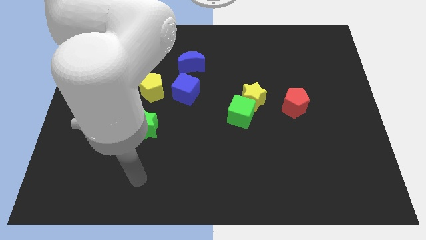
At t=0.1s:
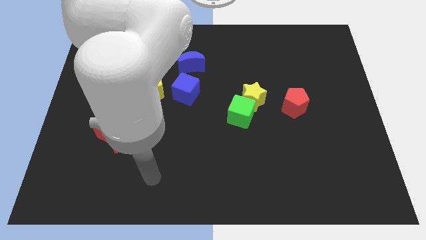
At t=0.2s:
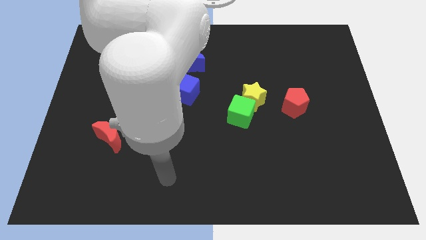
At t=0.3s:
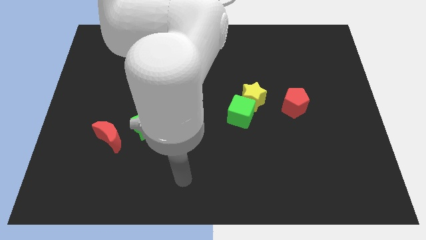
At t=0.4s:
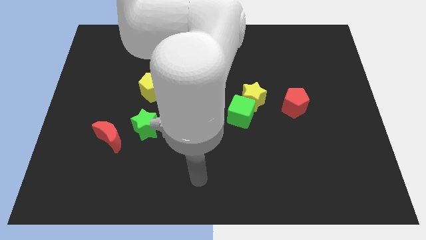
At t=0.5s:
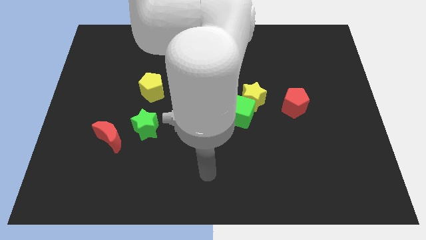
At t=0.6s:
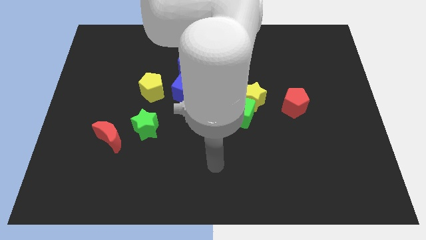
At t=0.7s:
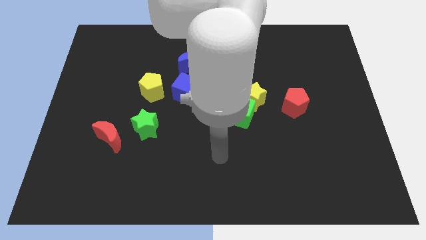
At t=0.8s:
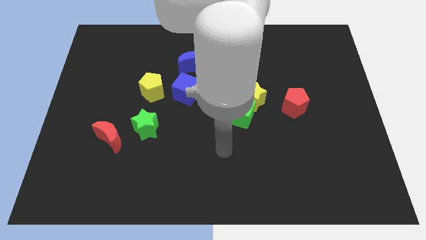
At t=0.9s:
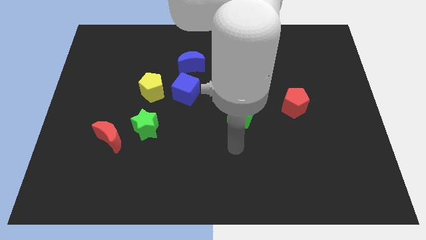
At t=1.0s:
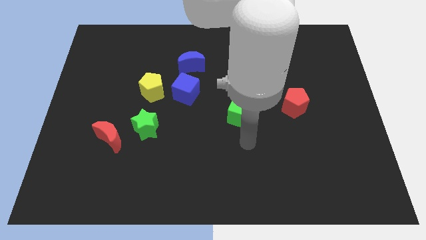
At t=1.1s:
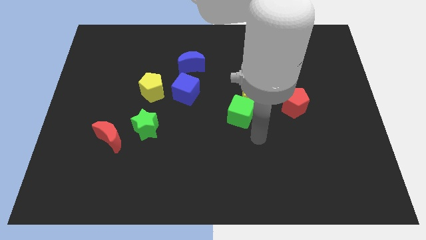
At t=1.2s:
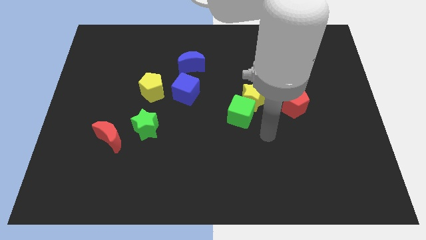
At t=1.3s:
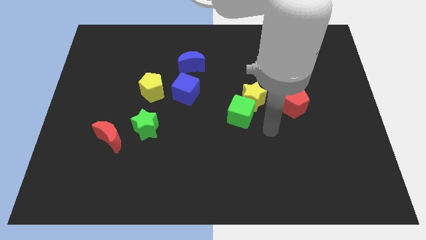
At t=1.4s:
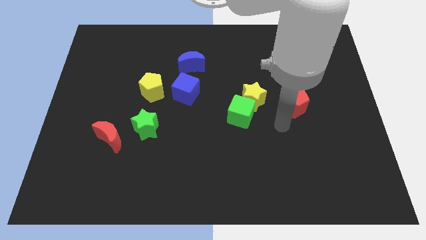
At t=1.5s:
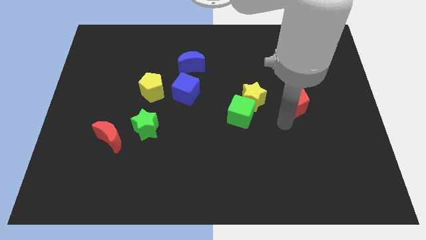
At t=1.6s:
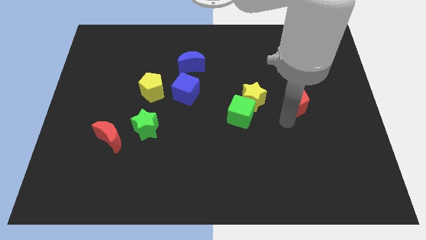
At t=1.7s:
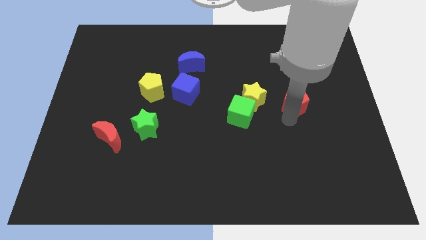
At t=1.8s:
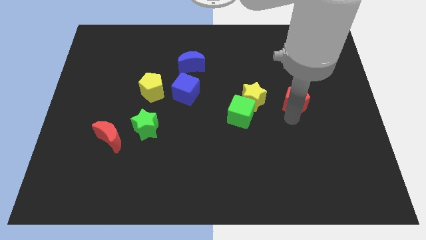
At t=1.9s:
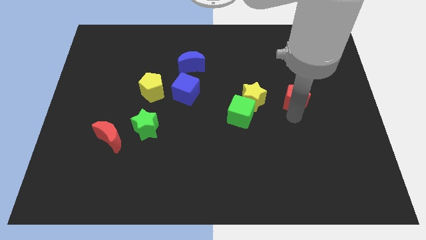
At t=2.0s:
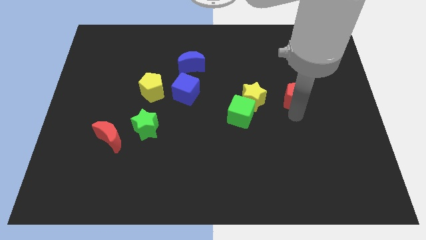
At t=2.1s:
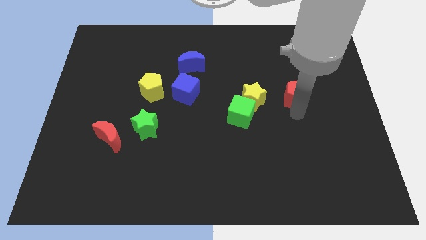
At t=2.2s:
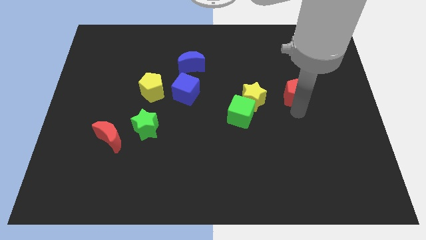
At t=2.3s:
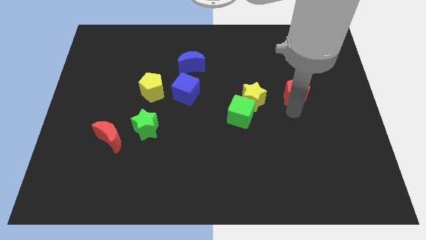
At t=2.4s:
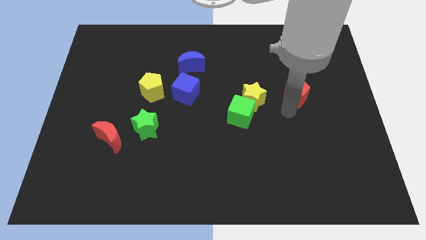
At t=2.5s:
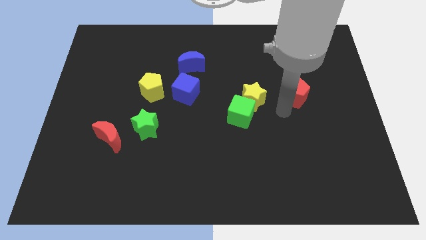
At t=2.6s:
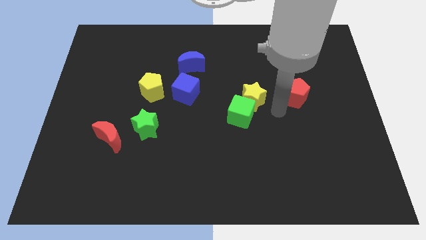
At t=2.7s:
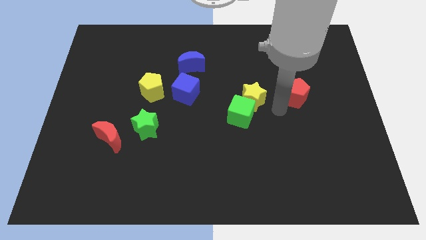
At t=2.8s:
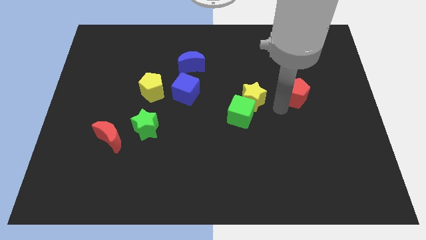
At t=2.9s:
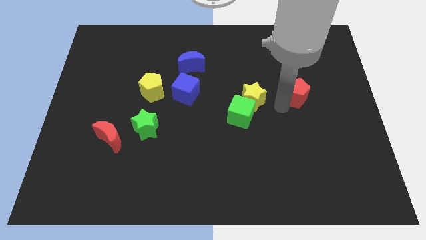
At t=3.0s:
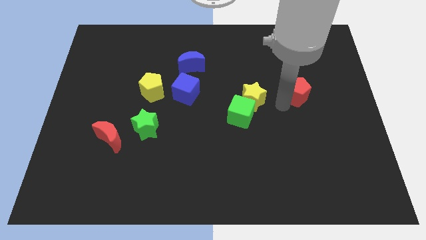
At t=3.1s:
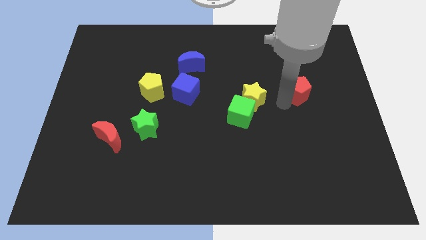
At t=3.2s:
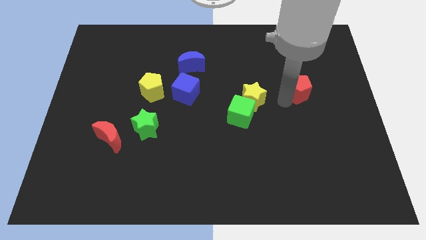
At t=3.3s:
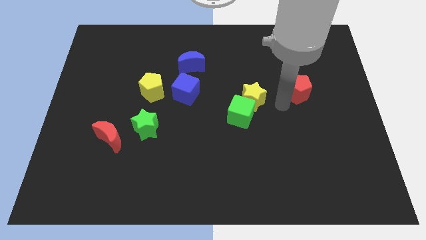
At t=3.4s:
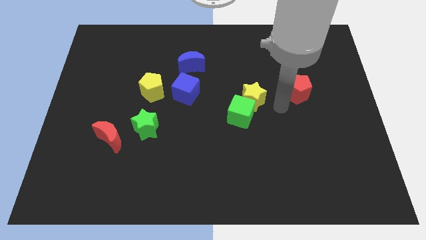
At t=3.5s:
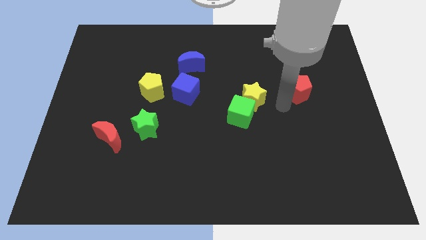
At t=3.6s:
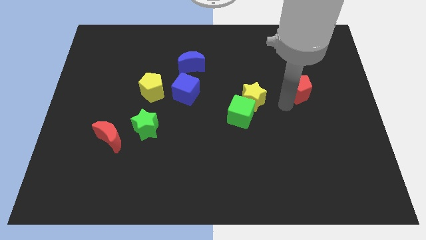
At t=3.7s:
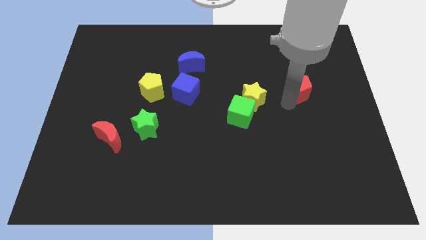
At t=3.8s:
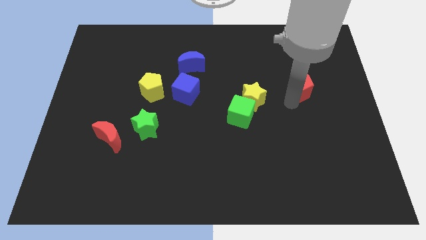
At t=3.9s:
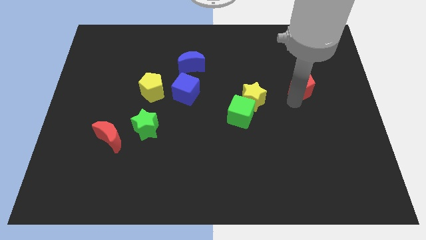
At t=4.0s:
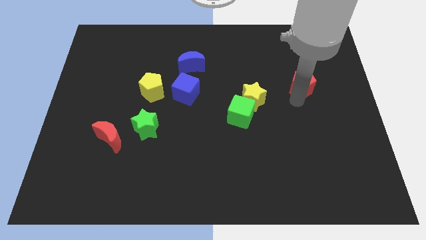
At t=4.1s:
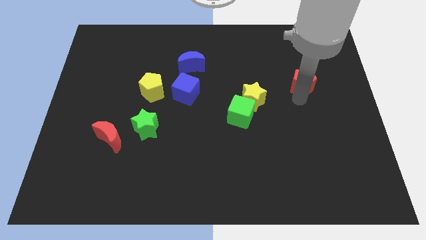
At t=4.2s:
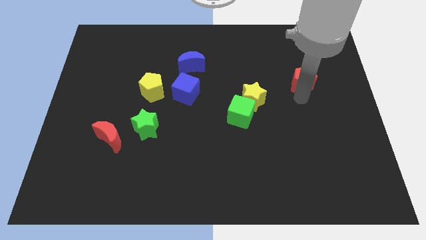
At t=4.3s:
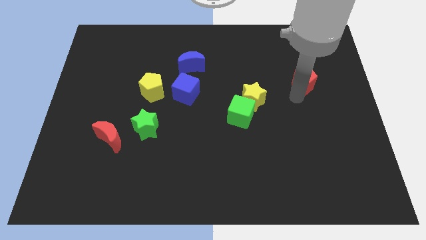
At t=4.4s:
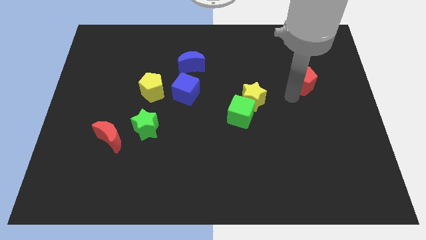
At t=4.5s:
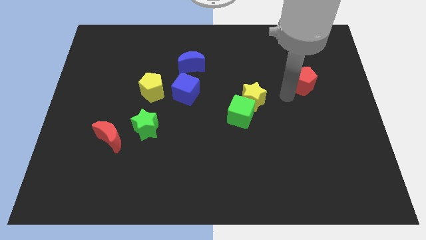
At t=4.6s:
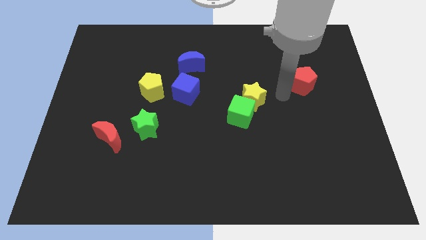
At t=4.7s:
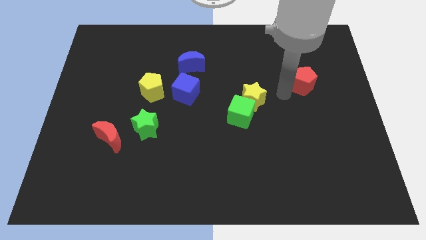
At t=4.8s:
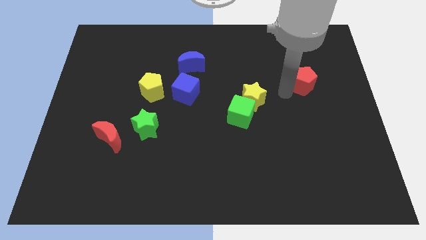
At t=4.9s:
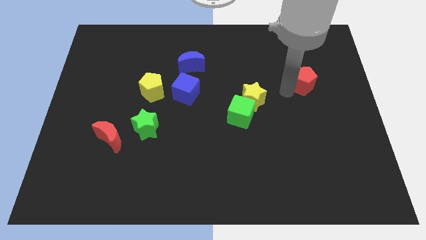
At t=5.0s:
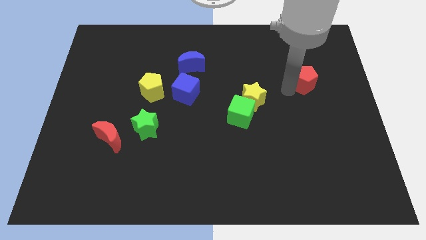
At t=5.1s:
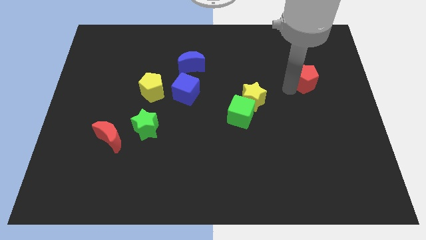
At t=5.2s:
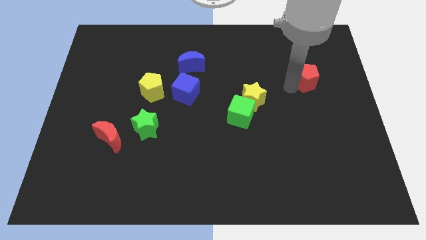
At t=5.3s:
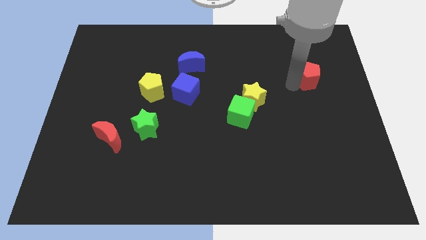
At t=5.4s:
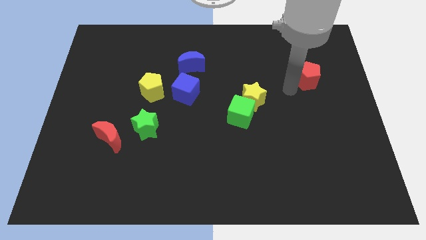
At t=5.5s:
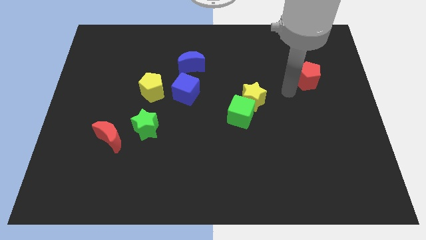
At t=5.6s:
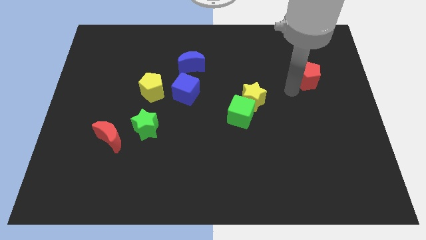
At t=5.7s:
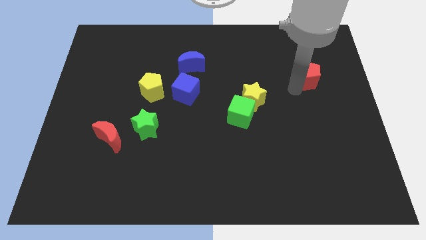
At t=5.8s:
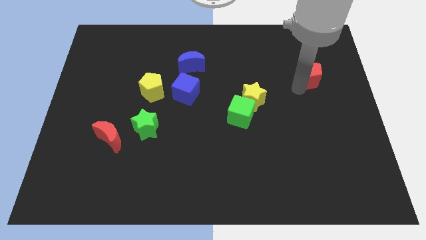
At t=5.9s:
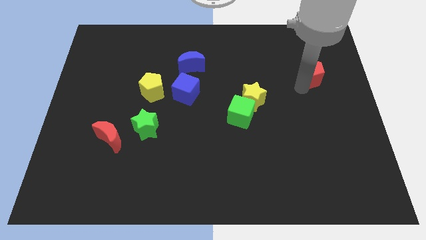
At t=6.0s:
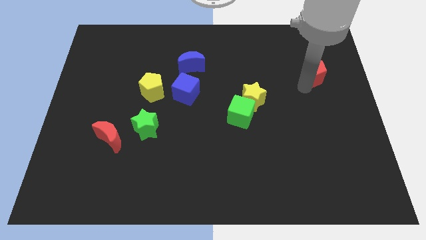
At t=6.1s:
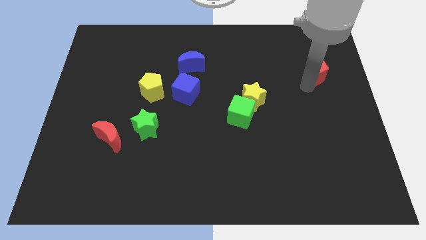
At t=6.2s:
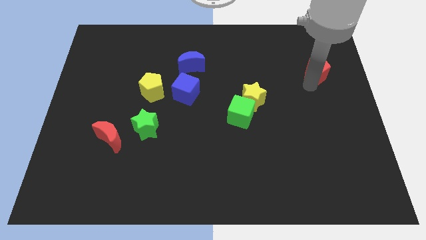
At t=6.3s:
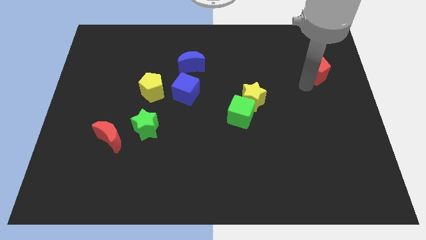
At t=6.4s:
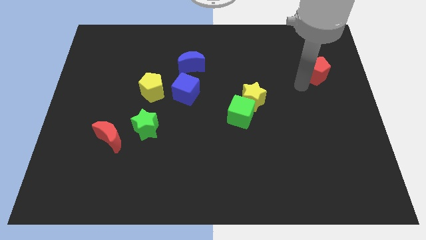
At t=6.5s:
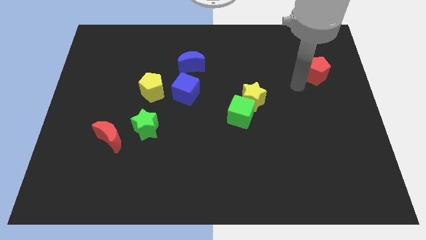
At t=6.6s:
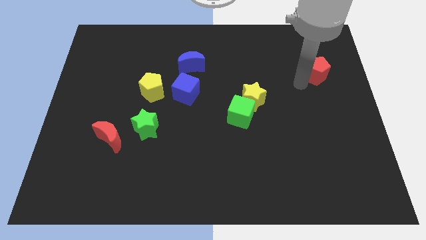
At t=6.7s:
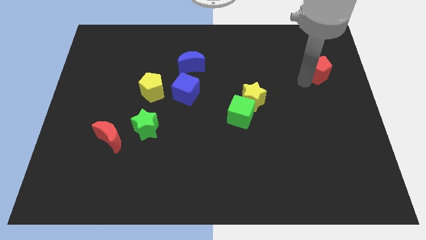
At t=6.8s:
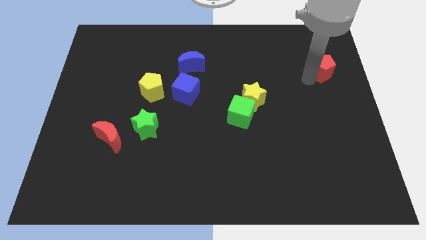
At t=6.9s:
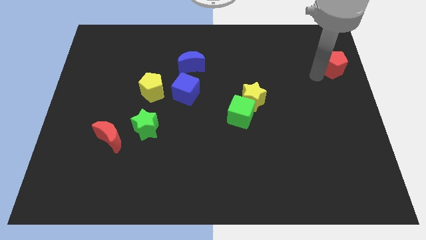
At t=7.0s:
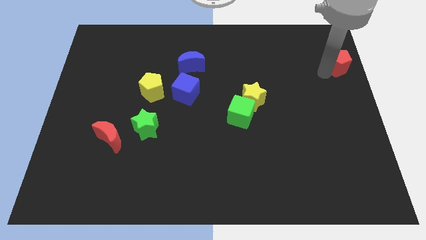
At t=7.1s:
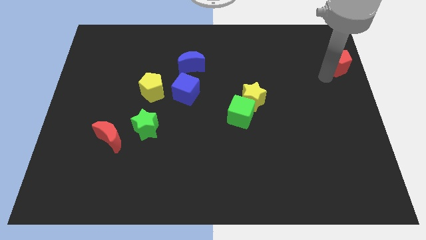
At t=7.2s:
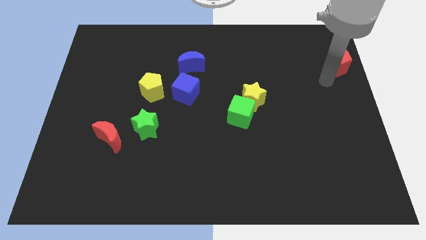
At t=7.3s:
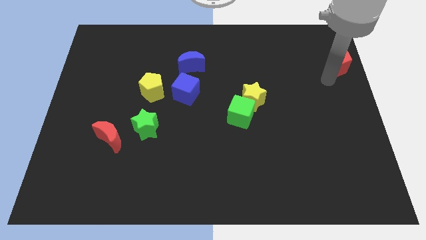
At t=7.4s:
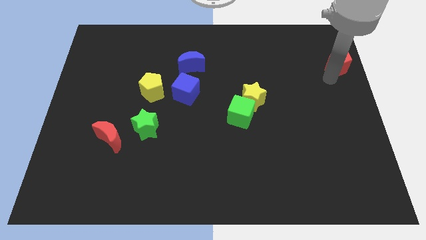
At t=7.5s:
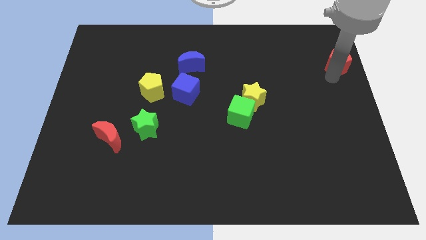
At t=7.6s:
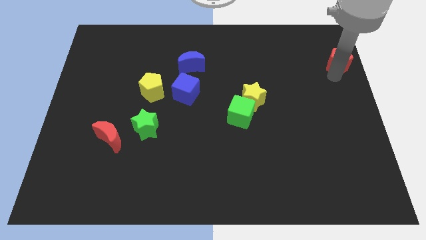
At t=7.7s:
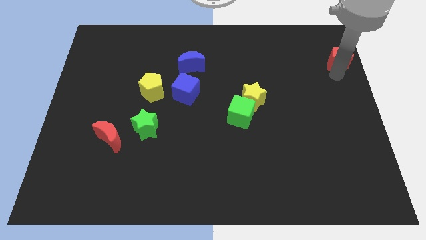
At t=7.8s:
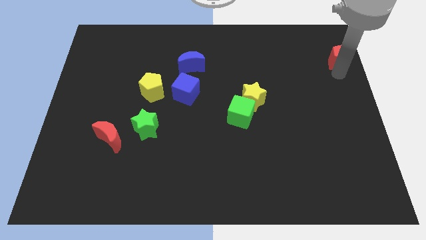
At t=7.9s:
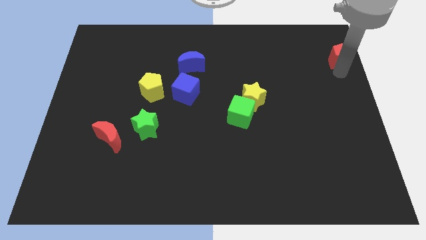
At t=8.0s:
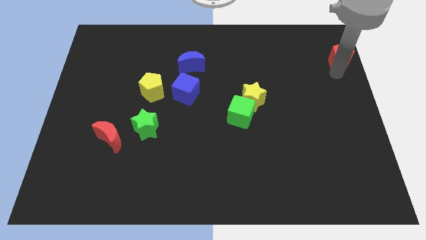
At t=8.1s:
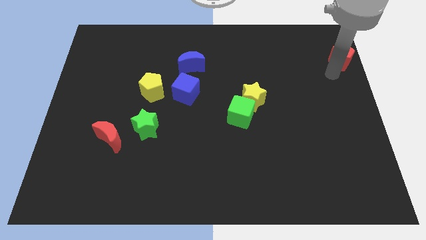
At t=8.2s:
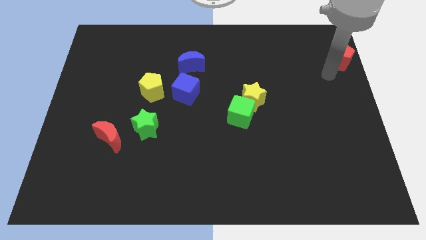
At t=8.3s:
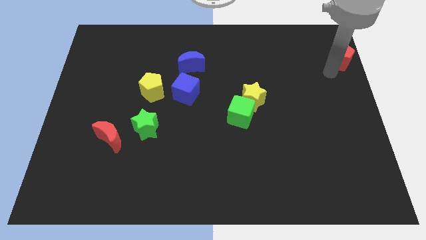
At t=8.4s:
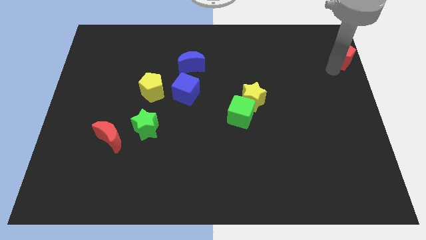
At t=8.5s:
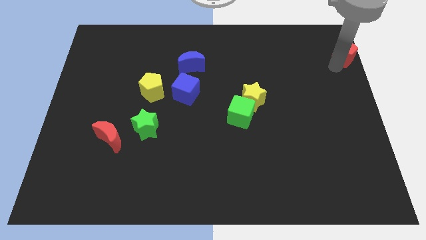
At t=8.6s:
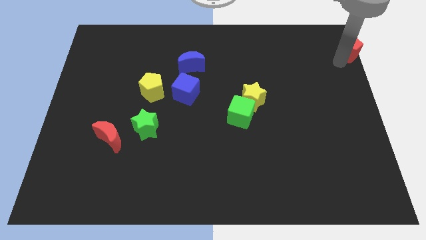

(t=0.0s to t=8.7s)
move the red pentagon to the upper right corner
